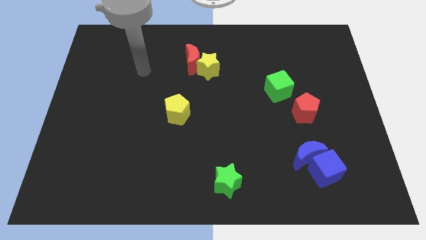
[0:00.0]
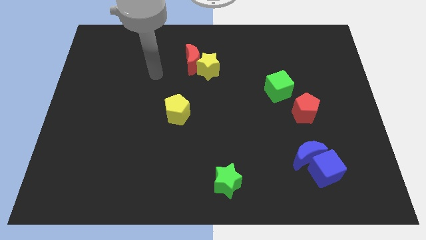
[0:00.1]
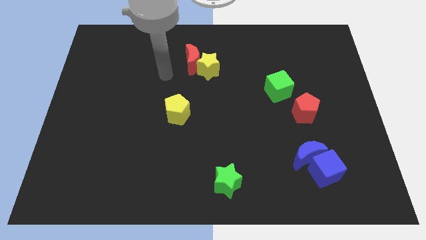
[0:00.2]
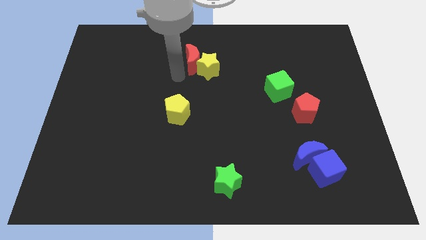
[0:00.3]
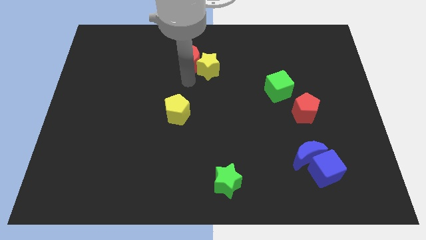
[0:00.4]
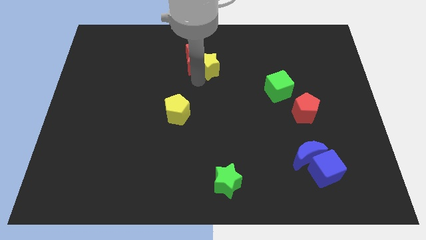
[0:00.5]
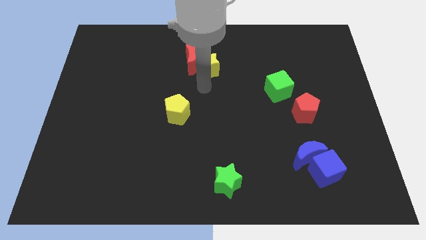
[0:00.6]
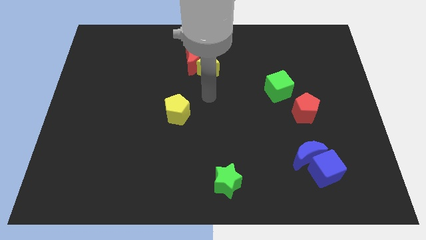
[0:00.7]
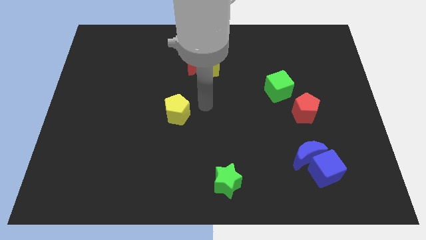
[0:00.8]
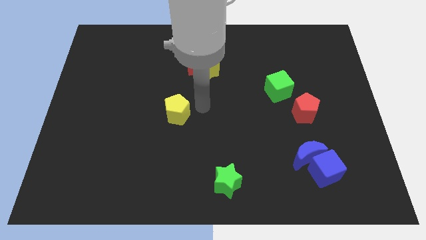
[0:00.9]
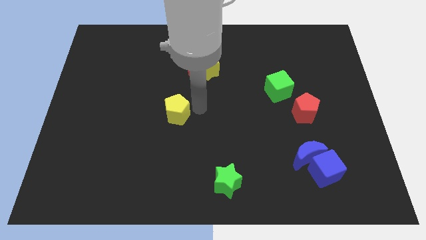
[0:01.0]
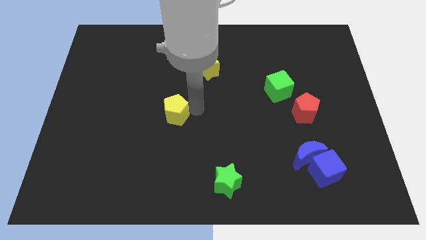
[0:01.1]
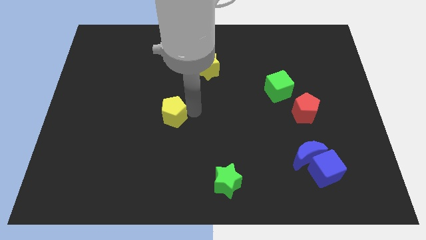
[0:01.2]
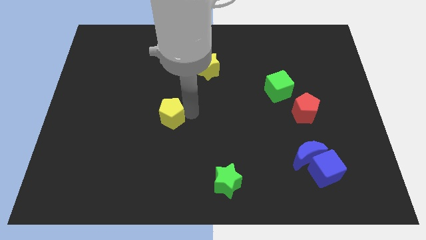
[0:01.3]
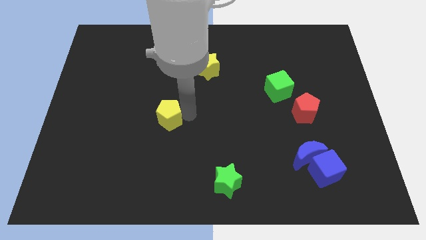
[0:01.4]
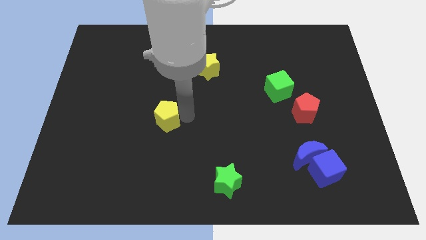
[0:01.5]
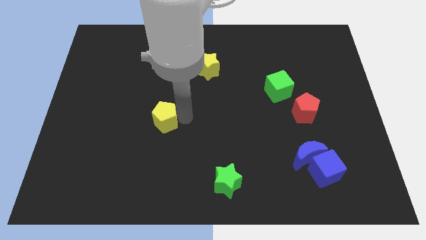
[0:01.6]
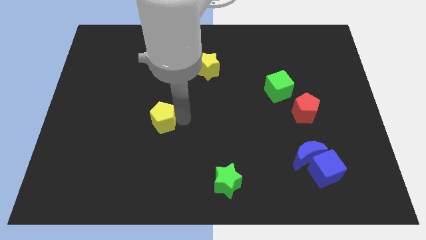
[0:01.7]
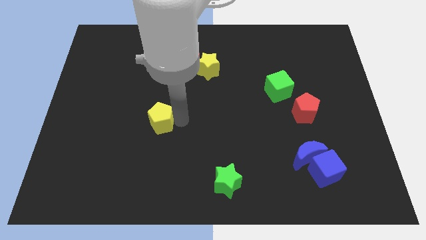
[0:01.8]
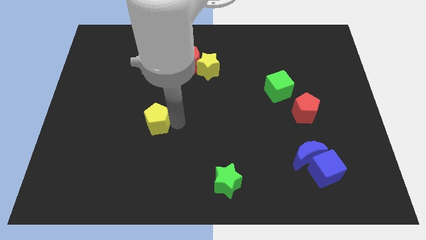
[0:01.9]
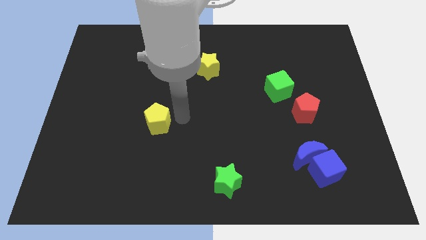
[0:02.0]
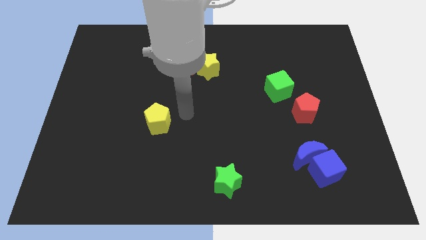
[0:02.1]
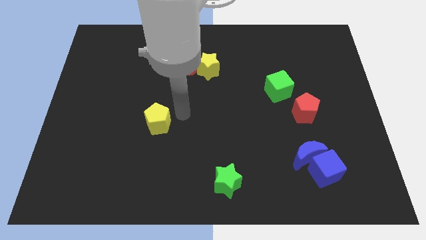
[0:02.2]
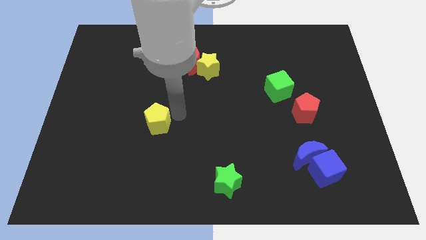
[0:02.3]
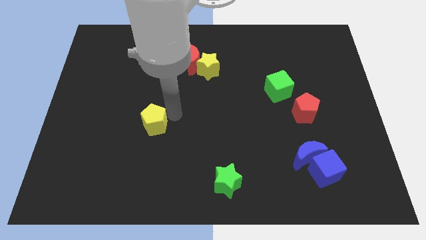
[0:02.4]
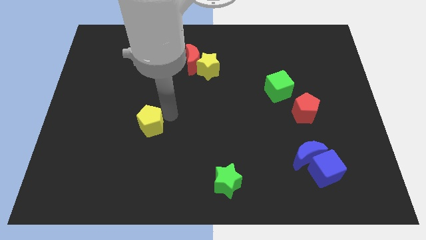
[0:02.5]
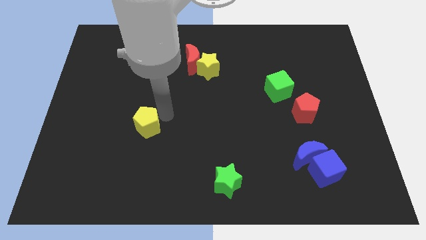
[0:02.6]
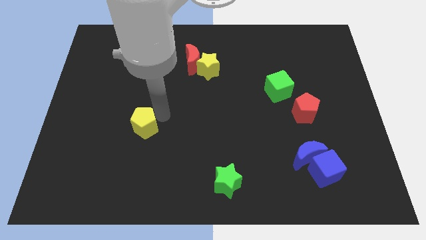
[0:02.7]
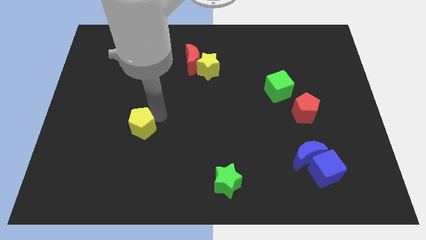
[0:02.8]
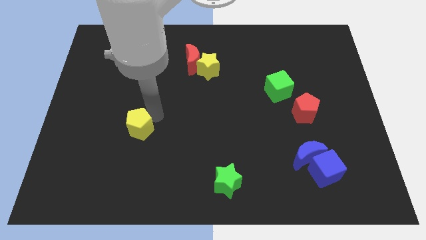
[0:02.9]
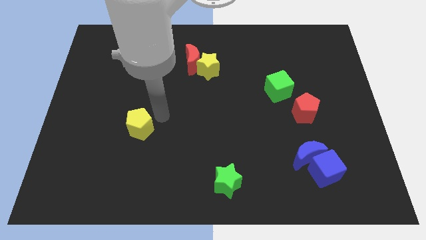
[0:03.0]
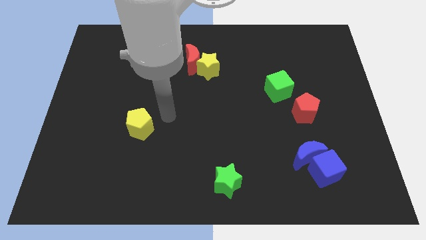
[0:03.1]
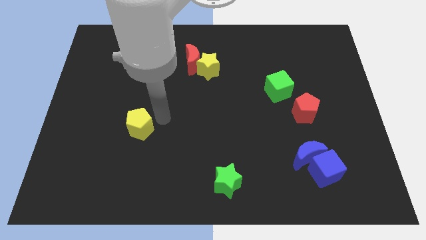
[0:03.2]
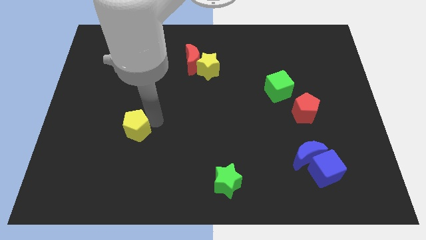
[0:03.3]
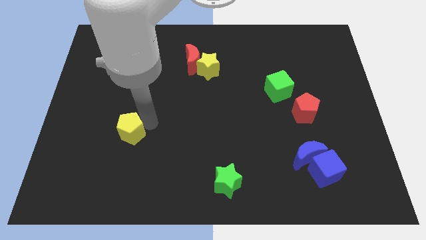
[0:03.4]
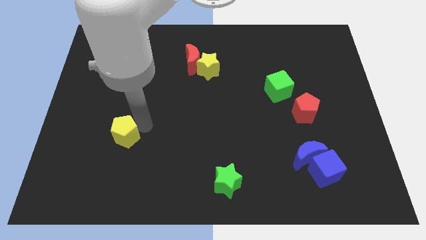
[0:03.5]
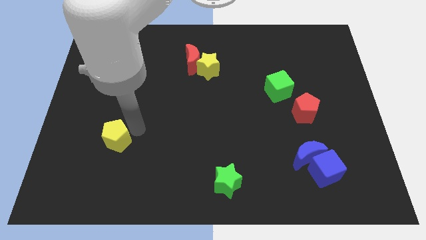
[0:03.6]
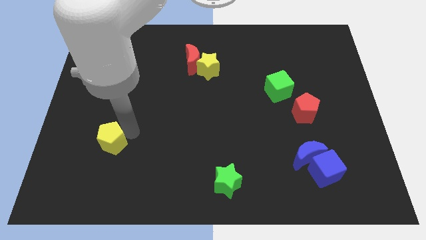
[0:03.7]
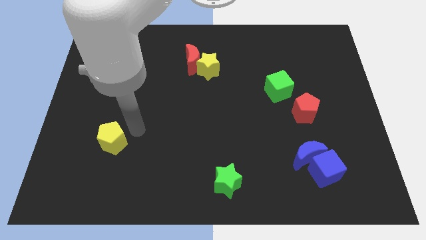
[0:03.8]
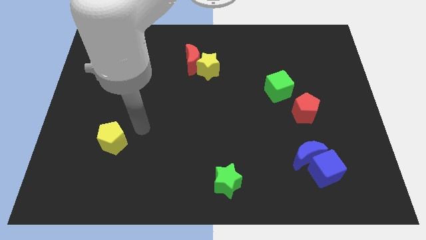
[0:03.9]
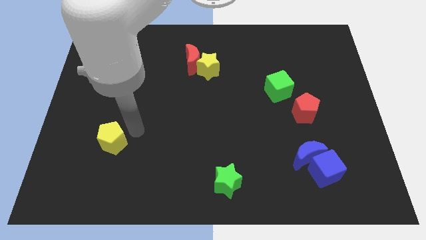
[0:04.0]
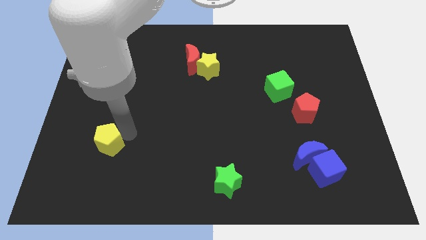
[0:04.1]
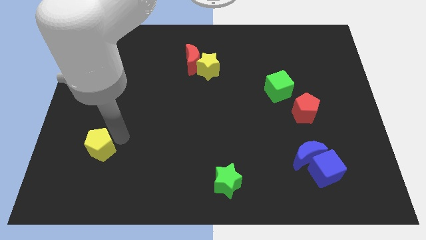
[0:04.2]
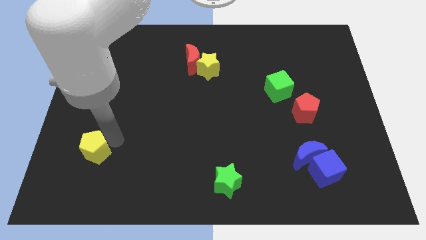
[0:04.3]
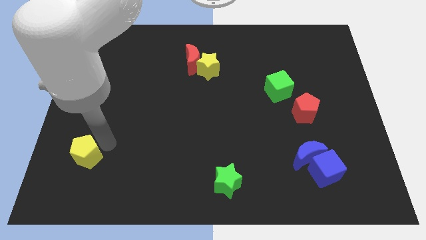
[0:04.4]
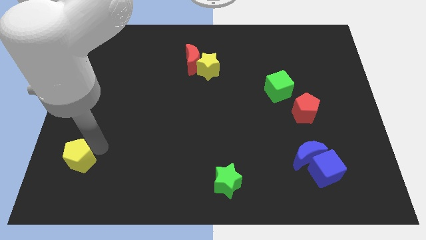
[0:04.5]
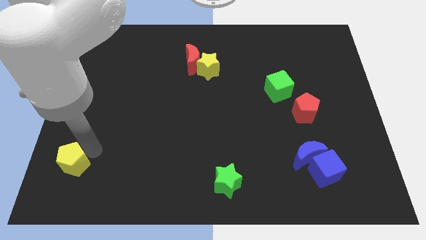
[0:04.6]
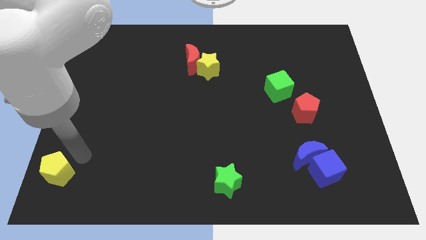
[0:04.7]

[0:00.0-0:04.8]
slide the yellow pentagon to the bottom left

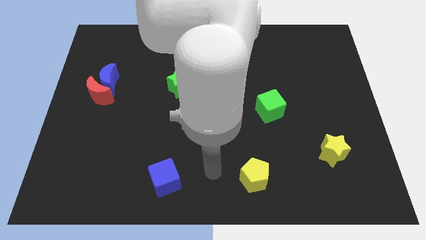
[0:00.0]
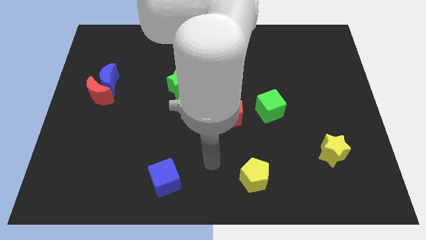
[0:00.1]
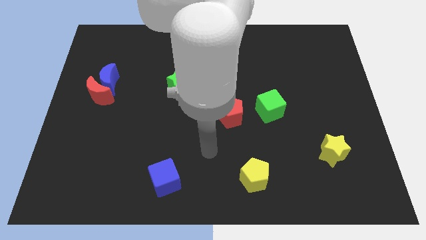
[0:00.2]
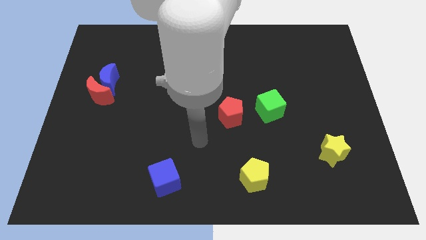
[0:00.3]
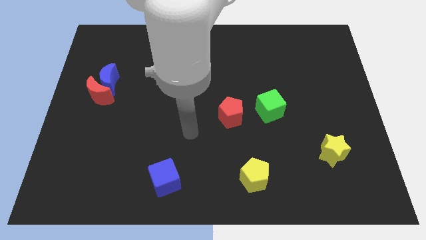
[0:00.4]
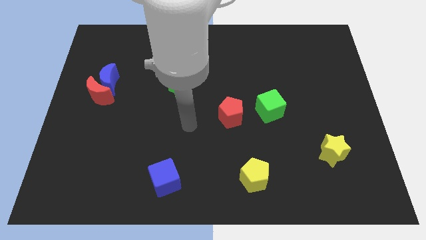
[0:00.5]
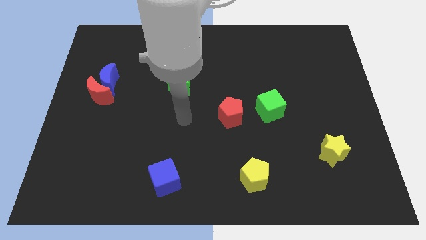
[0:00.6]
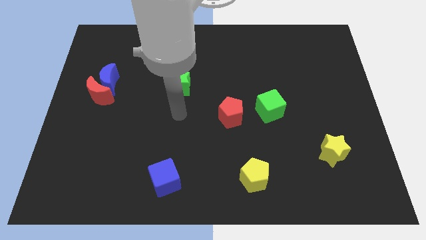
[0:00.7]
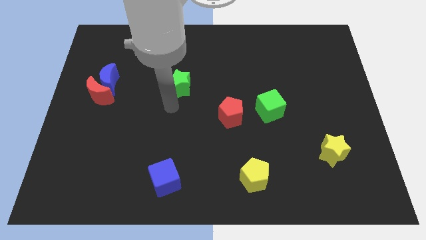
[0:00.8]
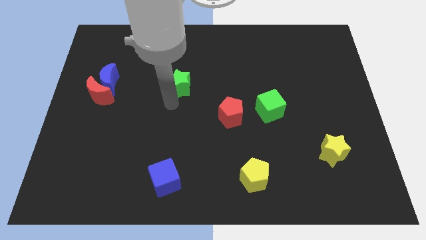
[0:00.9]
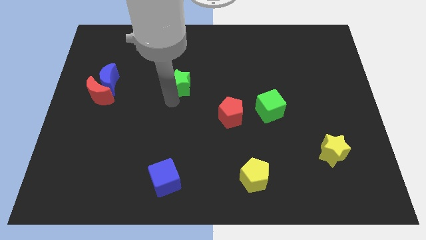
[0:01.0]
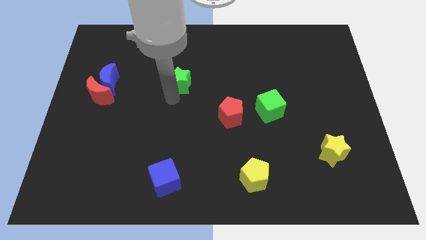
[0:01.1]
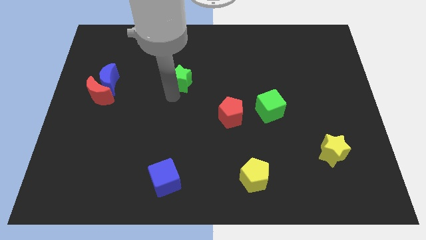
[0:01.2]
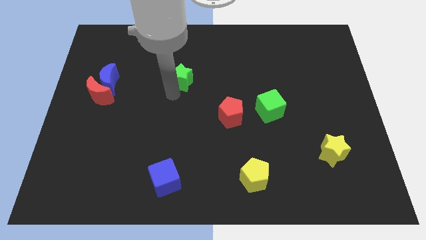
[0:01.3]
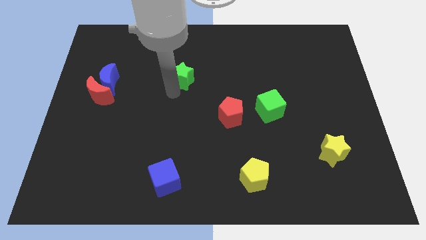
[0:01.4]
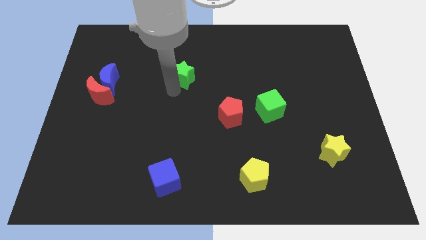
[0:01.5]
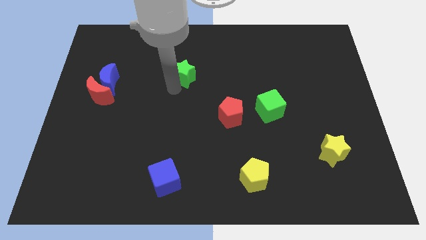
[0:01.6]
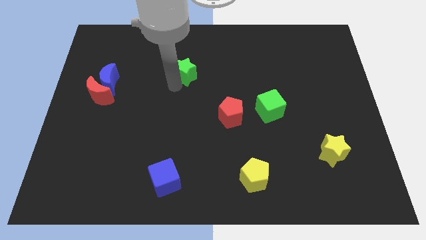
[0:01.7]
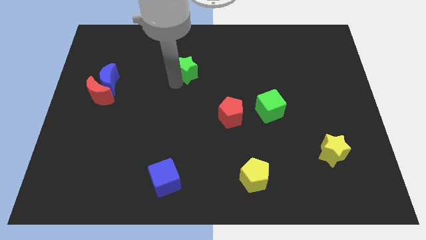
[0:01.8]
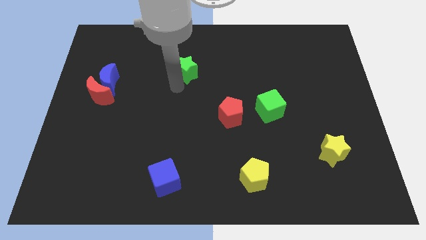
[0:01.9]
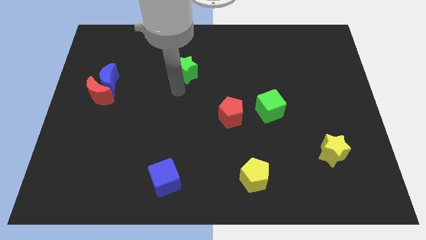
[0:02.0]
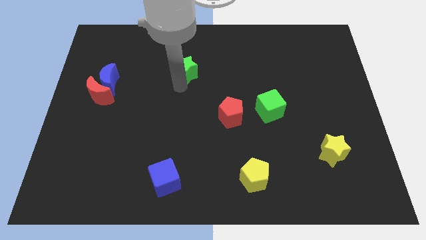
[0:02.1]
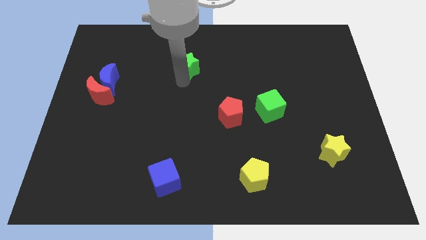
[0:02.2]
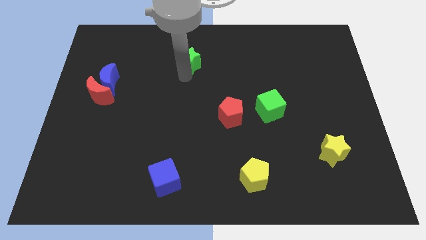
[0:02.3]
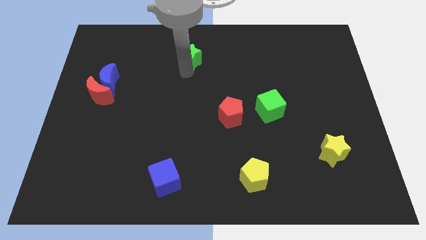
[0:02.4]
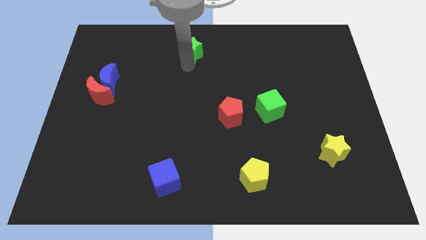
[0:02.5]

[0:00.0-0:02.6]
put the green star to the top
